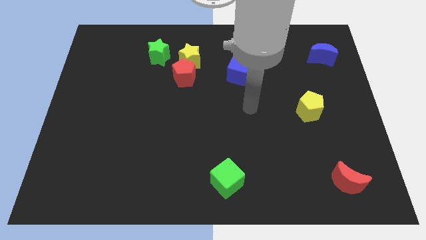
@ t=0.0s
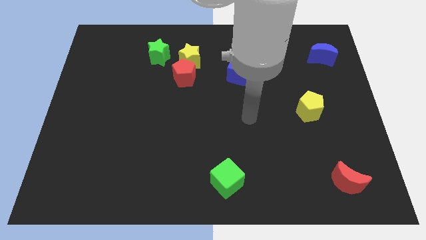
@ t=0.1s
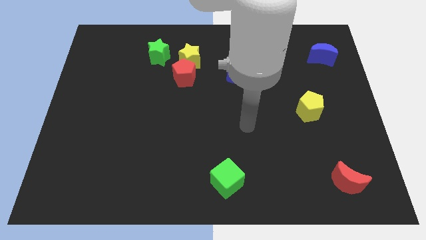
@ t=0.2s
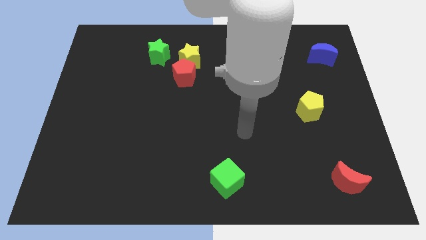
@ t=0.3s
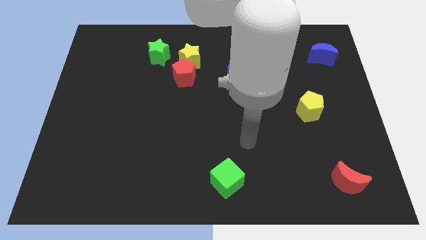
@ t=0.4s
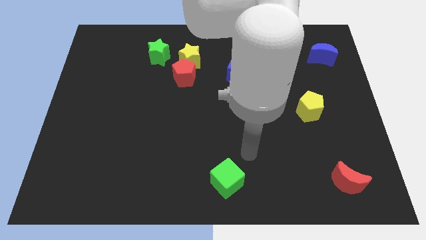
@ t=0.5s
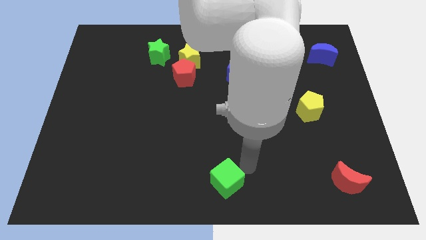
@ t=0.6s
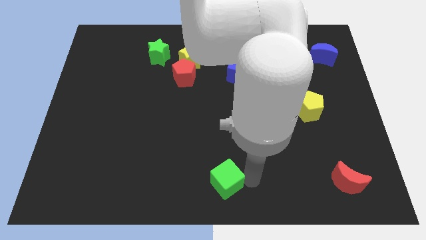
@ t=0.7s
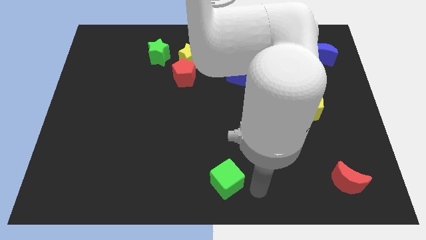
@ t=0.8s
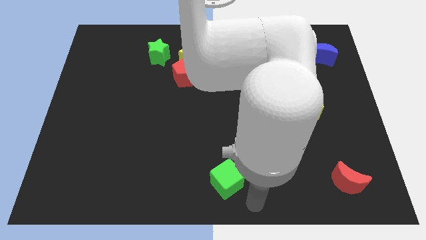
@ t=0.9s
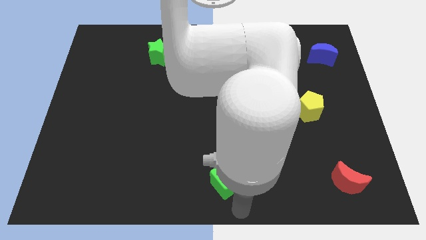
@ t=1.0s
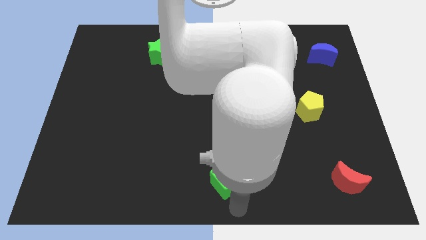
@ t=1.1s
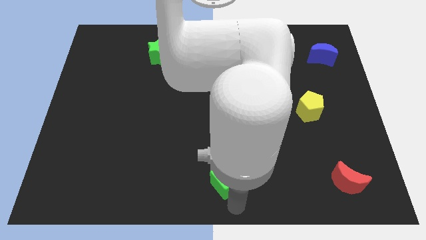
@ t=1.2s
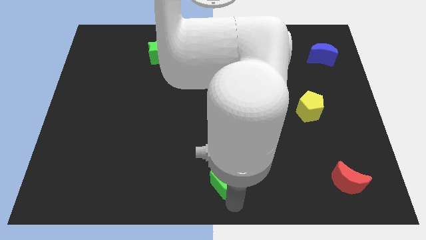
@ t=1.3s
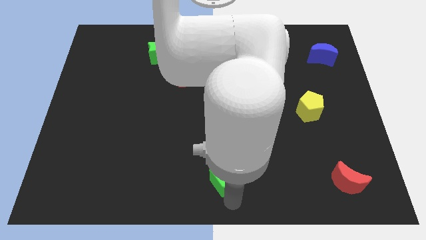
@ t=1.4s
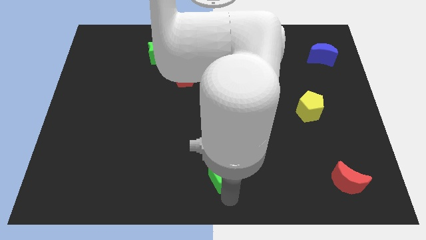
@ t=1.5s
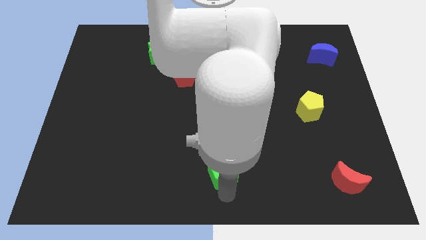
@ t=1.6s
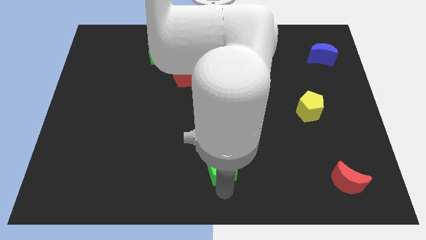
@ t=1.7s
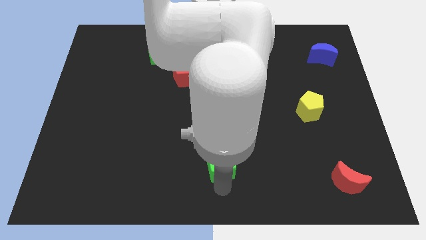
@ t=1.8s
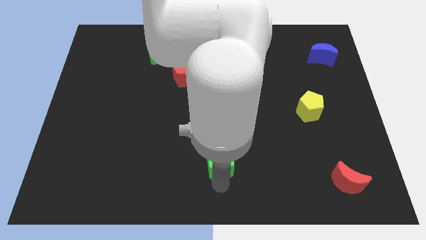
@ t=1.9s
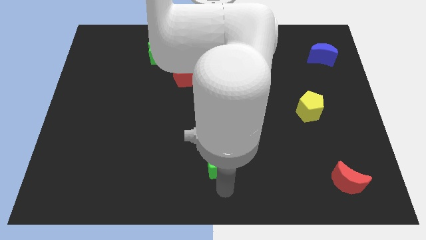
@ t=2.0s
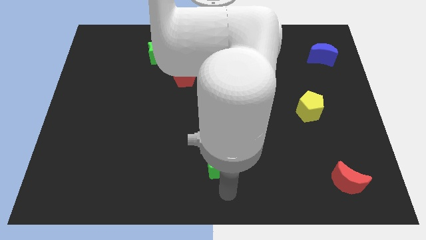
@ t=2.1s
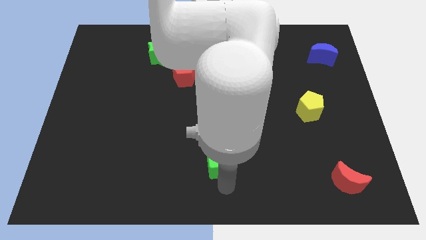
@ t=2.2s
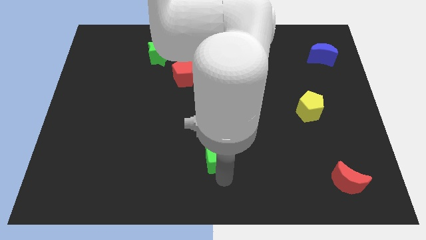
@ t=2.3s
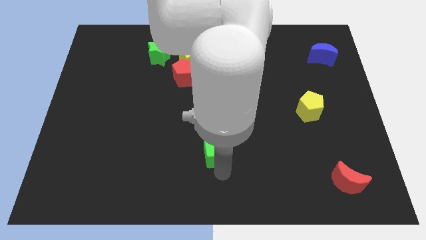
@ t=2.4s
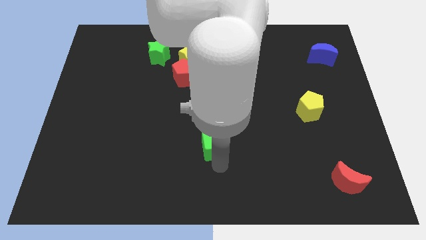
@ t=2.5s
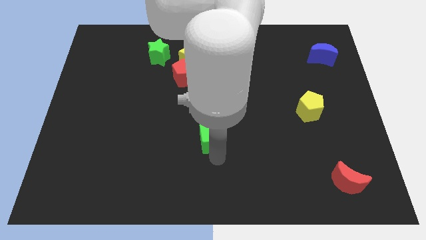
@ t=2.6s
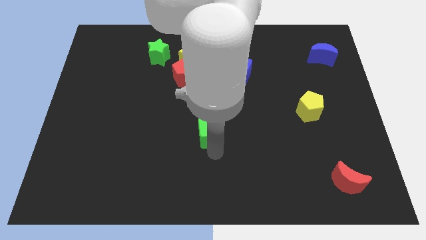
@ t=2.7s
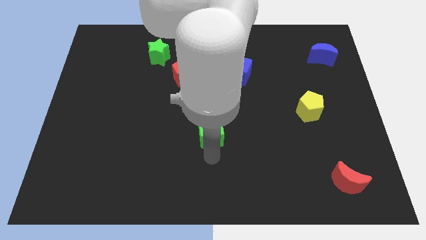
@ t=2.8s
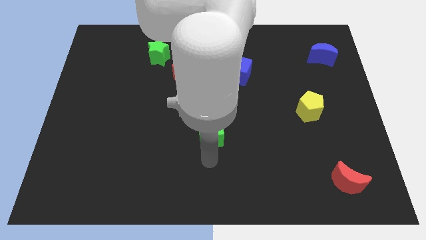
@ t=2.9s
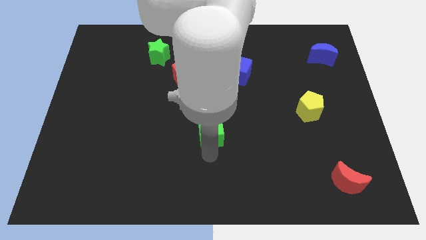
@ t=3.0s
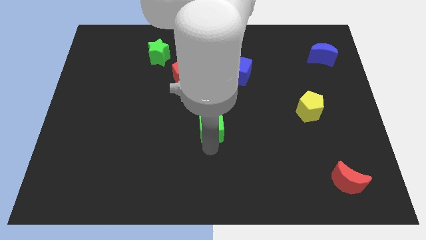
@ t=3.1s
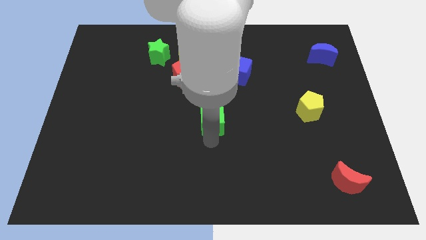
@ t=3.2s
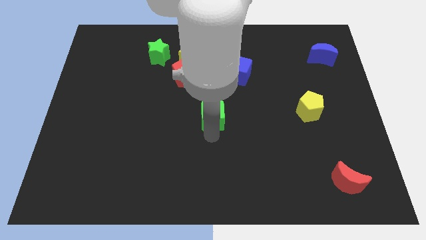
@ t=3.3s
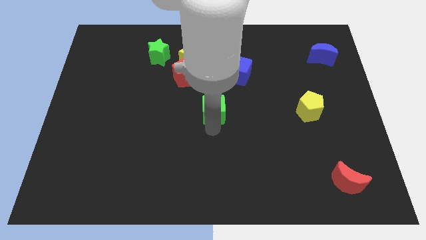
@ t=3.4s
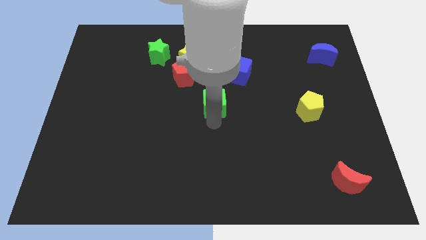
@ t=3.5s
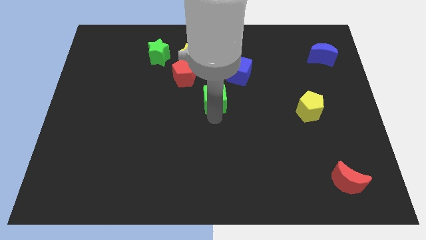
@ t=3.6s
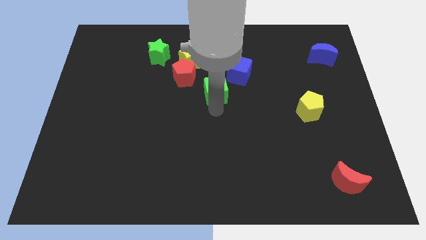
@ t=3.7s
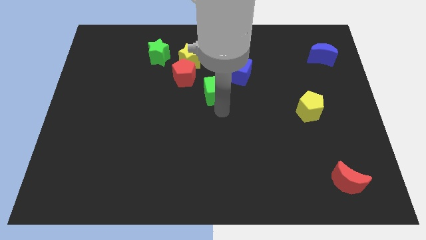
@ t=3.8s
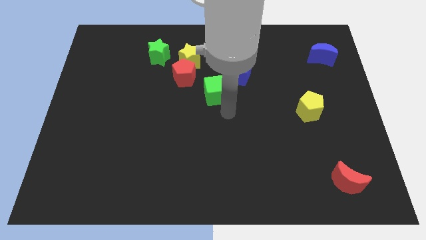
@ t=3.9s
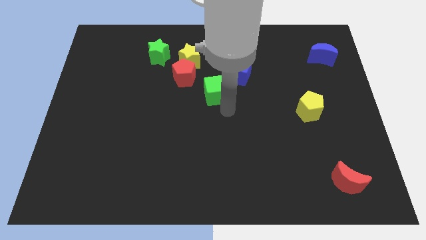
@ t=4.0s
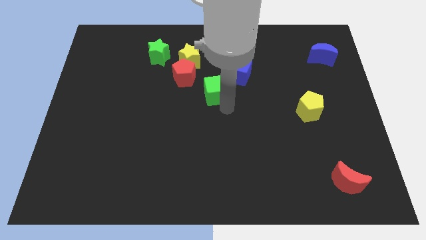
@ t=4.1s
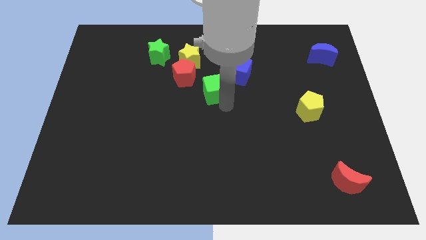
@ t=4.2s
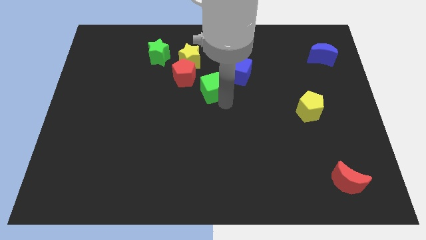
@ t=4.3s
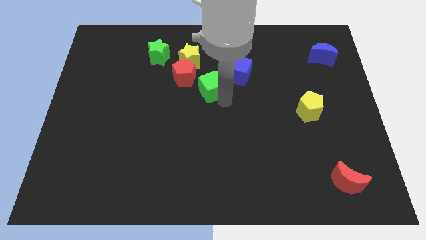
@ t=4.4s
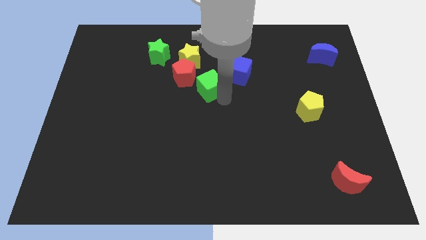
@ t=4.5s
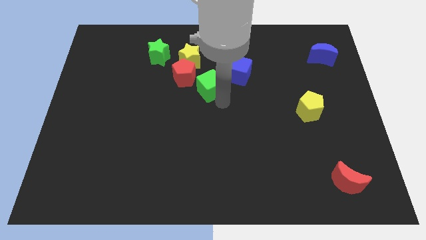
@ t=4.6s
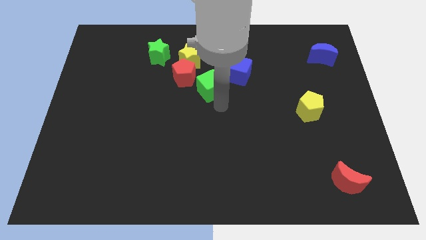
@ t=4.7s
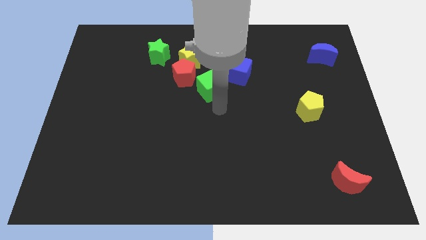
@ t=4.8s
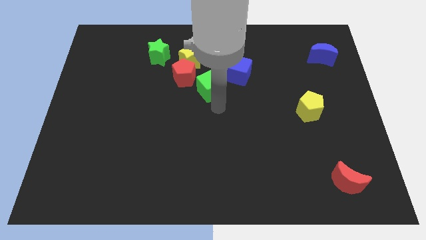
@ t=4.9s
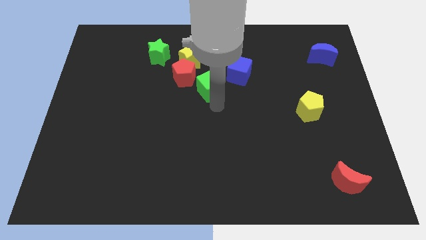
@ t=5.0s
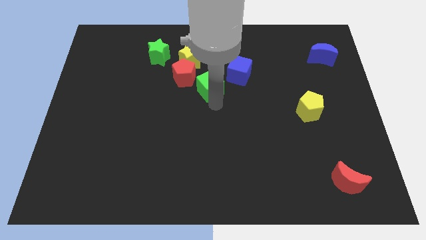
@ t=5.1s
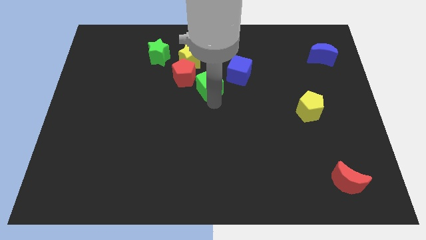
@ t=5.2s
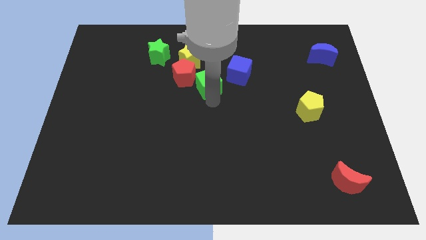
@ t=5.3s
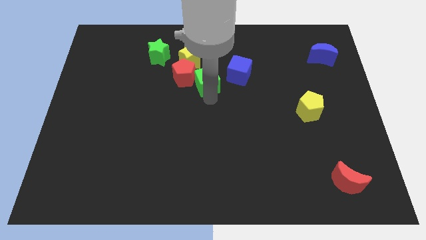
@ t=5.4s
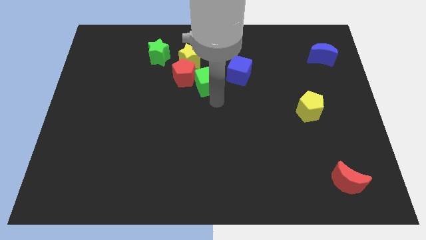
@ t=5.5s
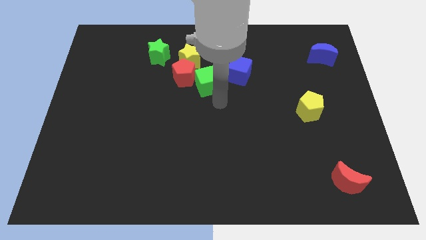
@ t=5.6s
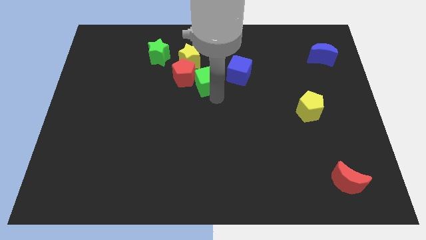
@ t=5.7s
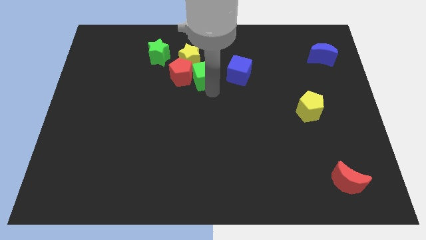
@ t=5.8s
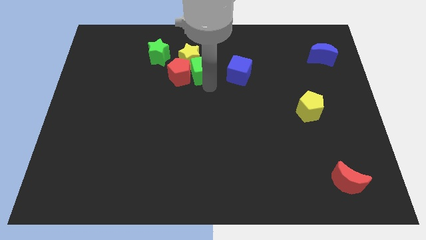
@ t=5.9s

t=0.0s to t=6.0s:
push the green cube towards the yellow star
